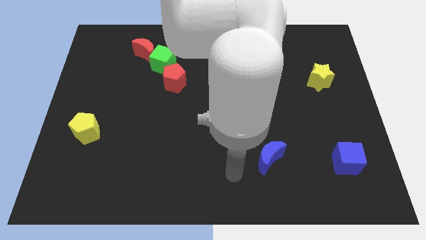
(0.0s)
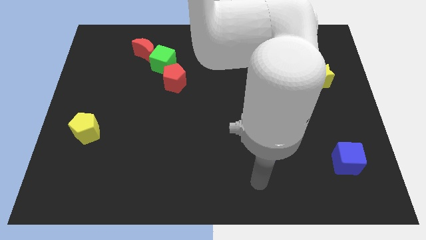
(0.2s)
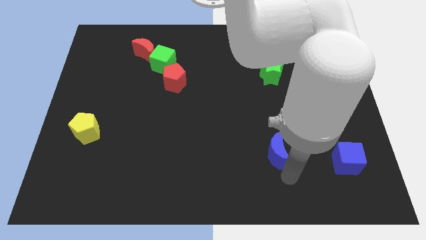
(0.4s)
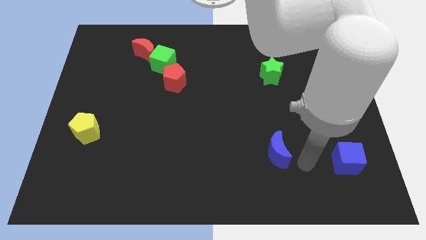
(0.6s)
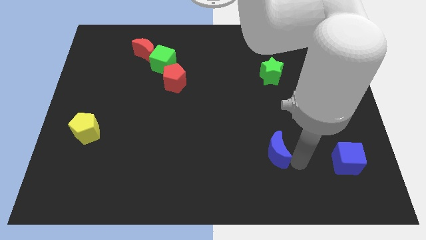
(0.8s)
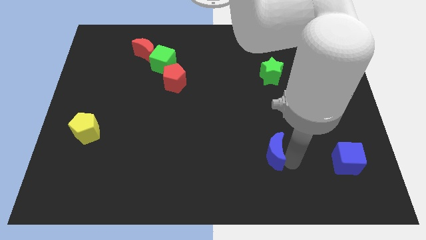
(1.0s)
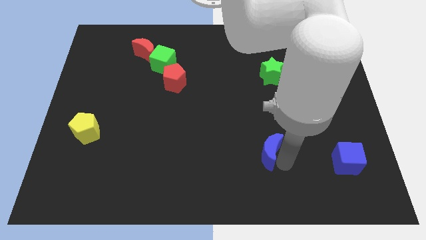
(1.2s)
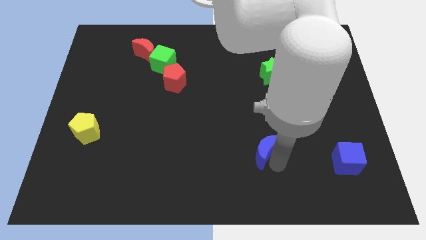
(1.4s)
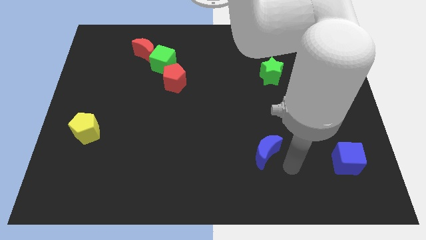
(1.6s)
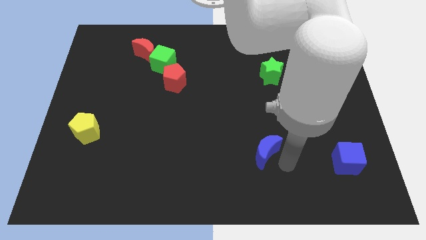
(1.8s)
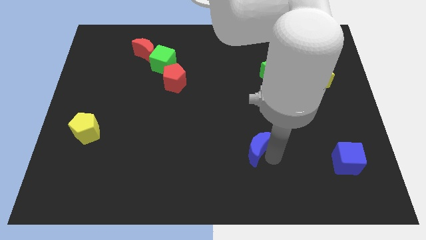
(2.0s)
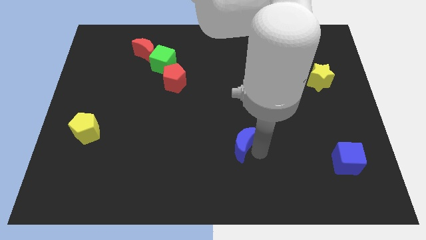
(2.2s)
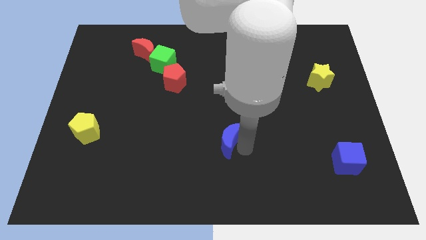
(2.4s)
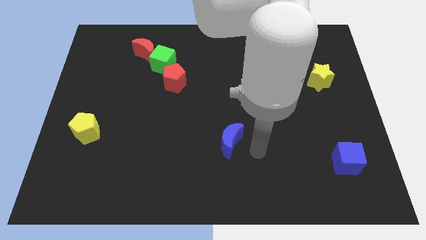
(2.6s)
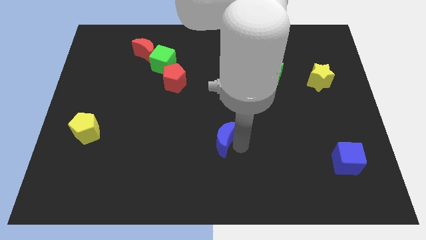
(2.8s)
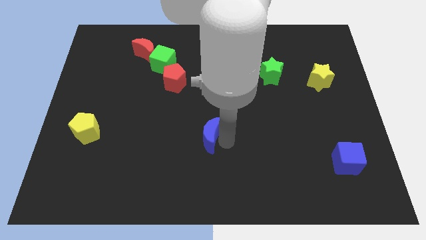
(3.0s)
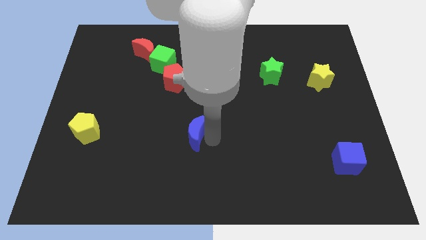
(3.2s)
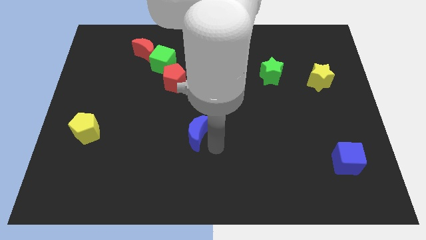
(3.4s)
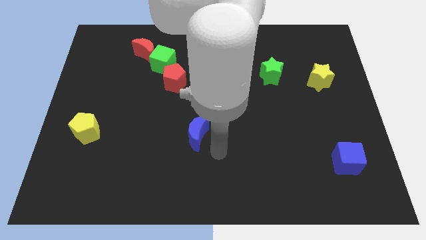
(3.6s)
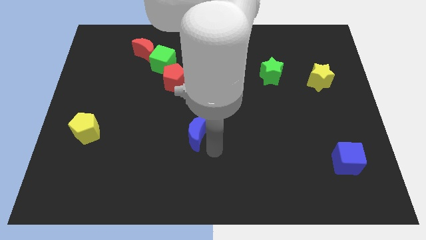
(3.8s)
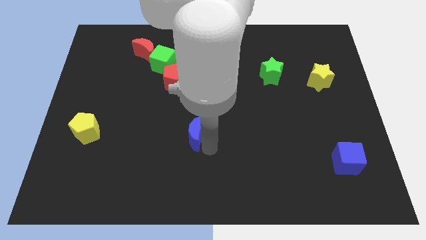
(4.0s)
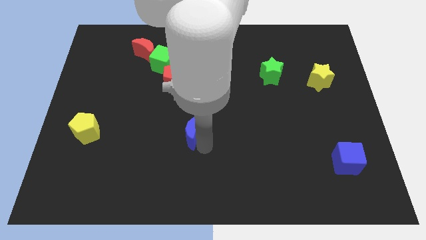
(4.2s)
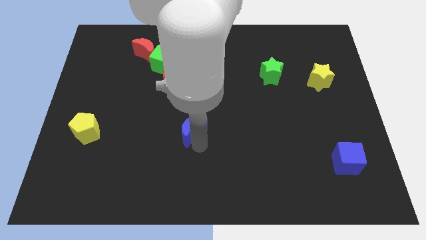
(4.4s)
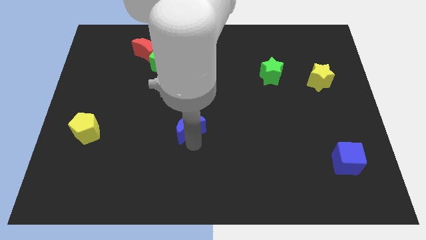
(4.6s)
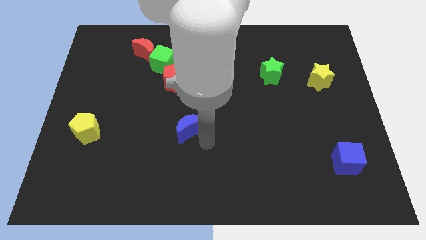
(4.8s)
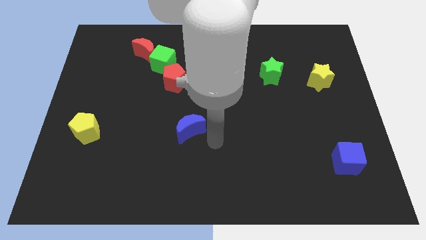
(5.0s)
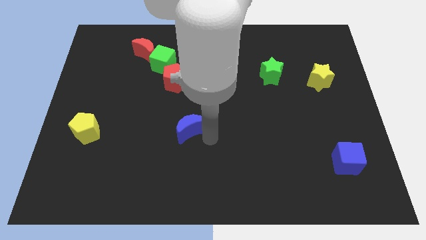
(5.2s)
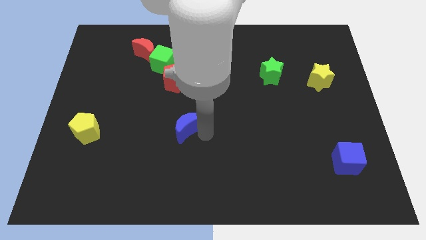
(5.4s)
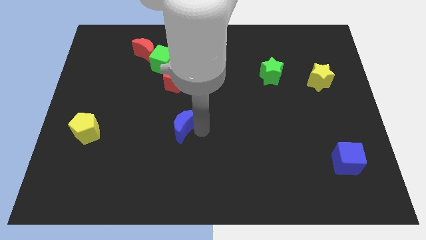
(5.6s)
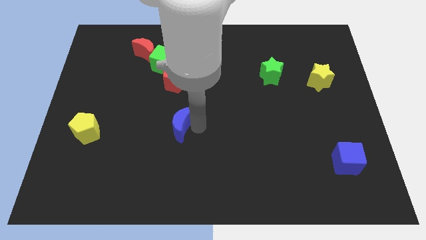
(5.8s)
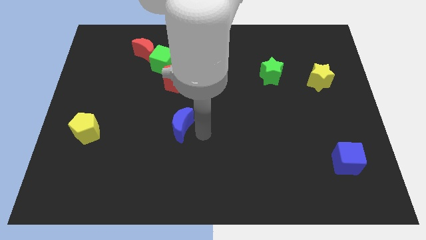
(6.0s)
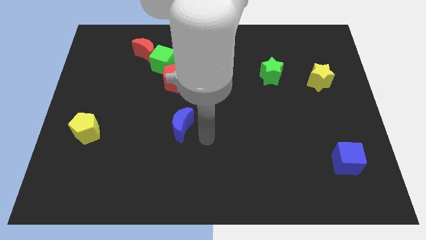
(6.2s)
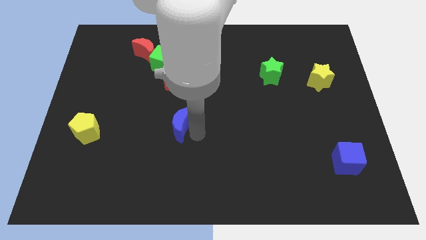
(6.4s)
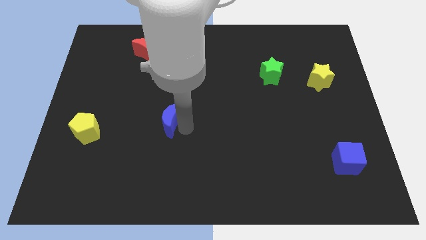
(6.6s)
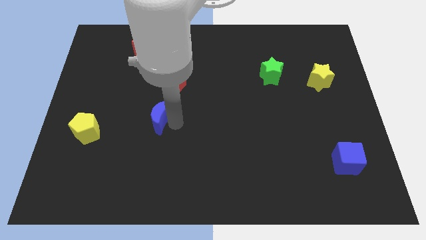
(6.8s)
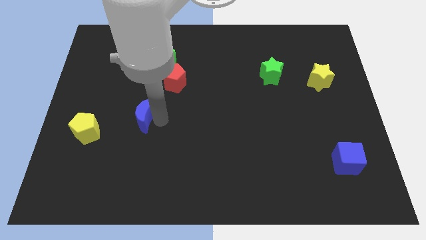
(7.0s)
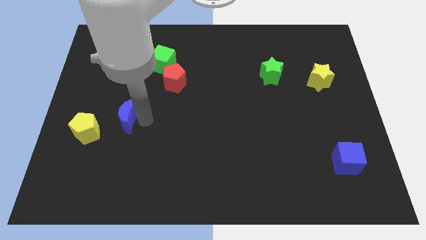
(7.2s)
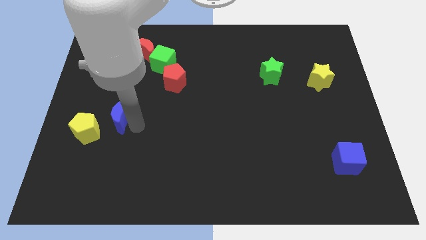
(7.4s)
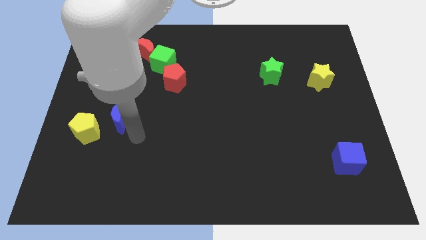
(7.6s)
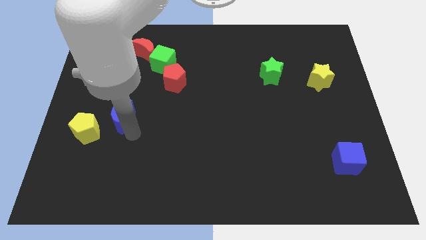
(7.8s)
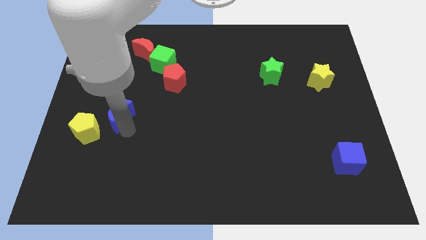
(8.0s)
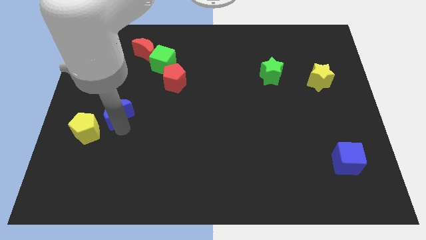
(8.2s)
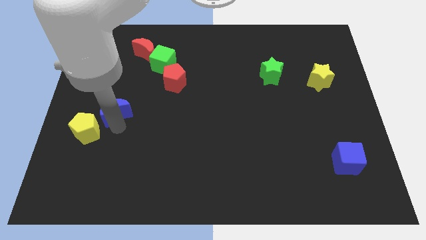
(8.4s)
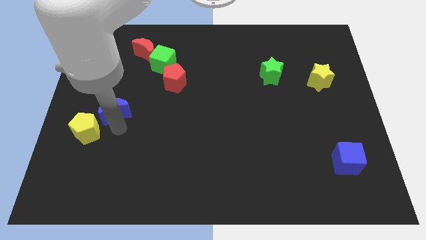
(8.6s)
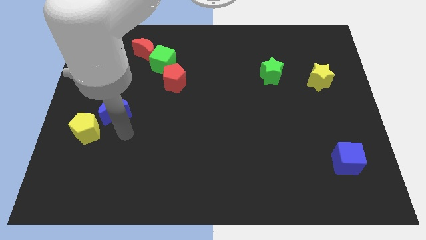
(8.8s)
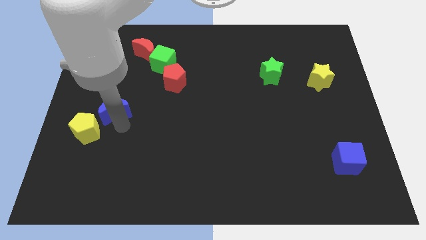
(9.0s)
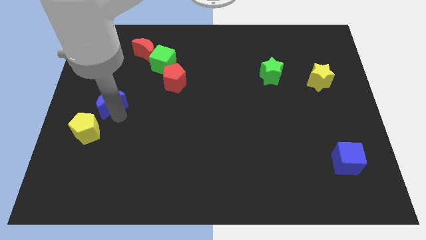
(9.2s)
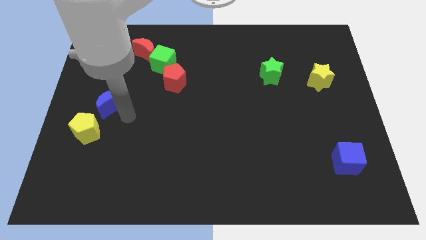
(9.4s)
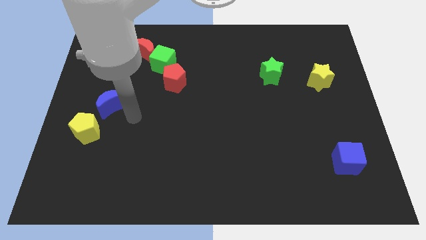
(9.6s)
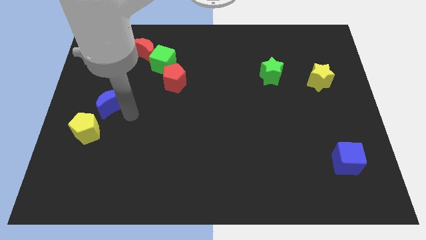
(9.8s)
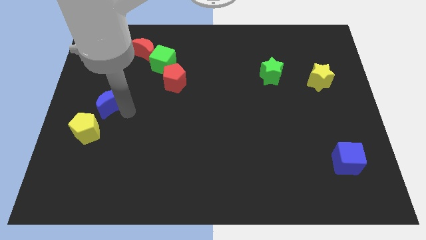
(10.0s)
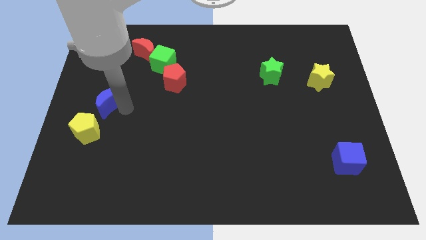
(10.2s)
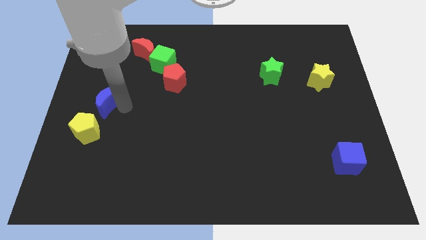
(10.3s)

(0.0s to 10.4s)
push the blue moon to the left side

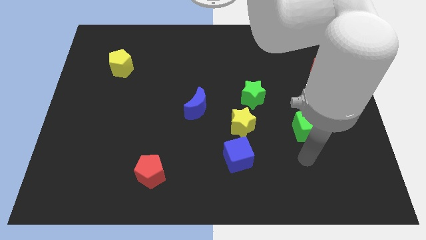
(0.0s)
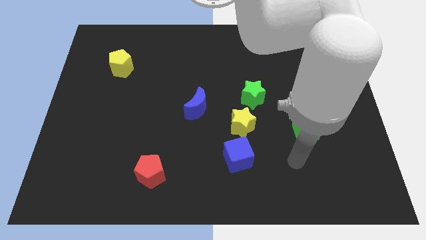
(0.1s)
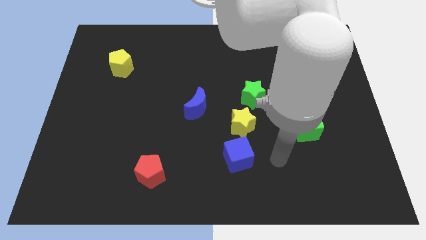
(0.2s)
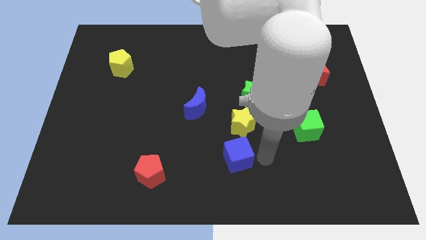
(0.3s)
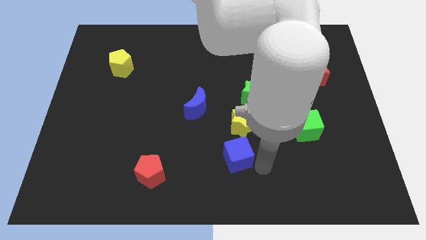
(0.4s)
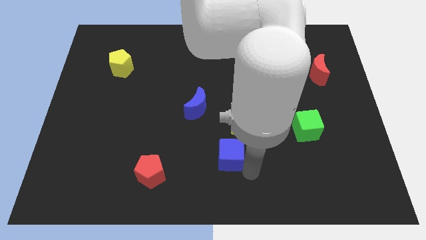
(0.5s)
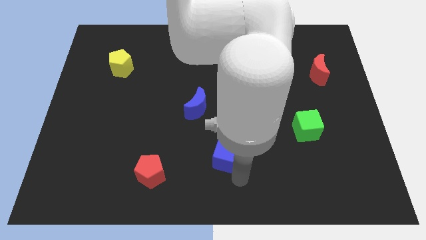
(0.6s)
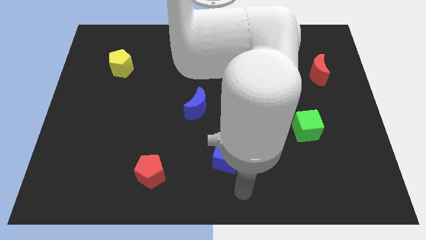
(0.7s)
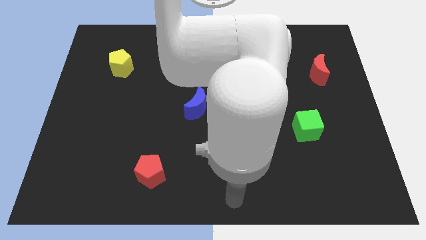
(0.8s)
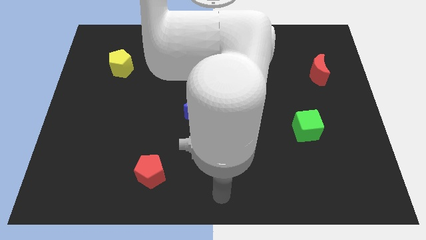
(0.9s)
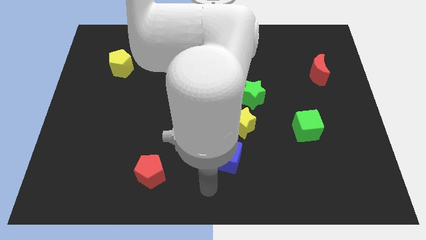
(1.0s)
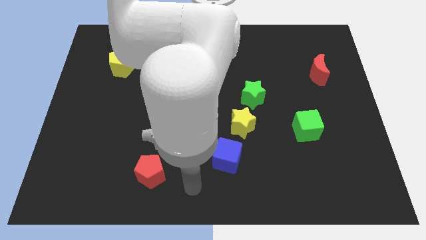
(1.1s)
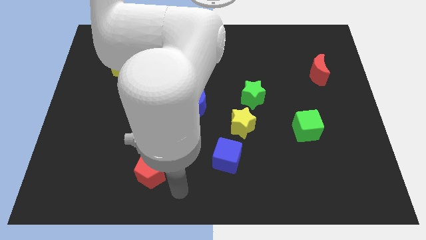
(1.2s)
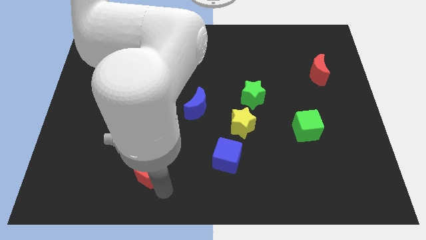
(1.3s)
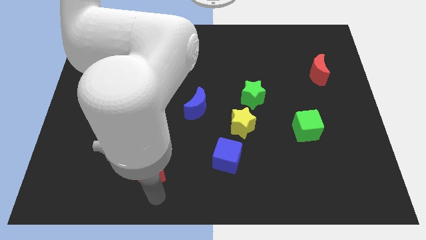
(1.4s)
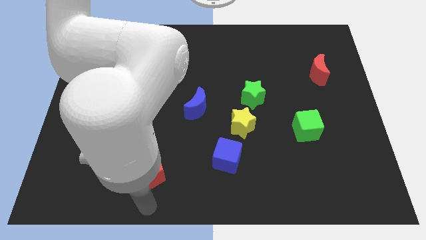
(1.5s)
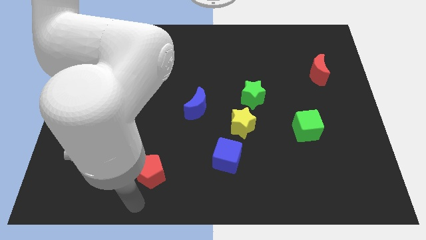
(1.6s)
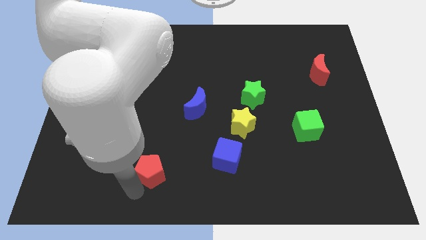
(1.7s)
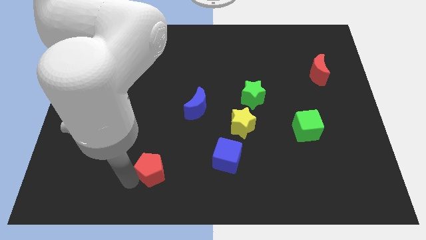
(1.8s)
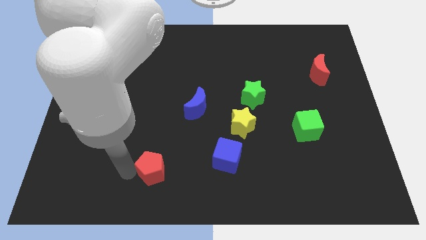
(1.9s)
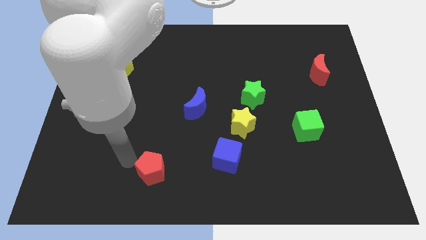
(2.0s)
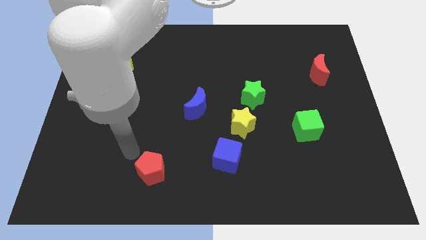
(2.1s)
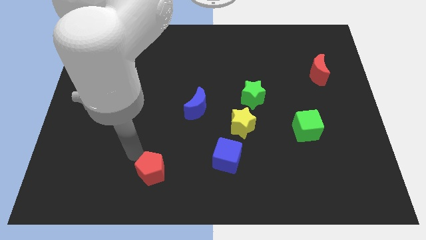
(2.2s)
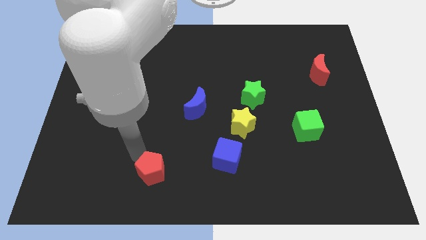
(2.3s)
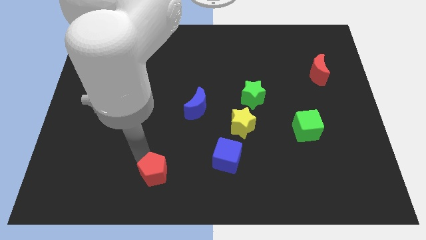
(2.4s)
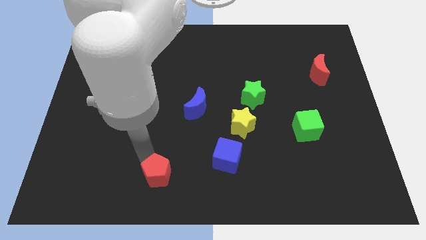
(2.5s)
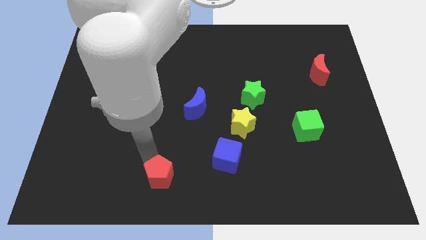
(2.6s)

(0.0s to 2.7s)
push the red pentagon to the bottom side
